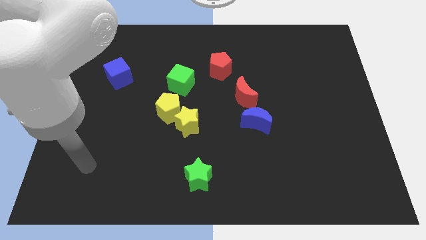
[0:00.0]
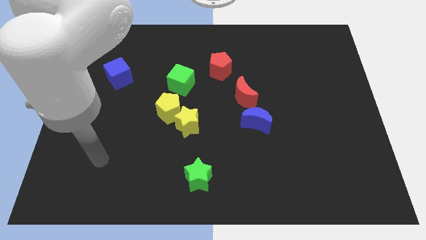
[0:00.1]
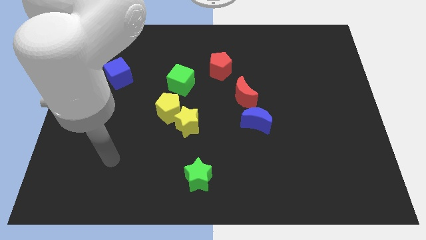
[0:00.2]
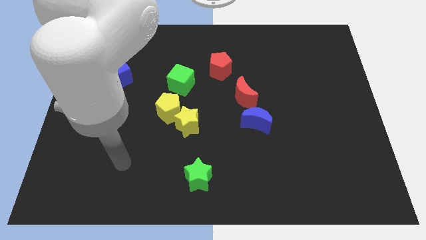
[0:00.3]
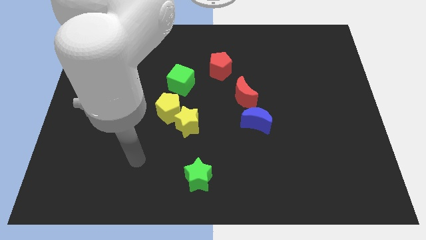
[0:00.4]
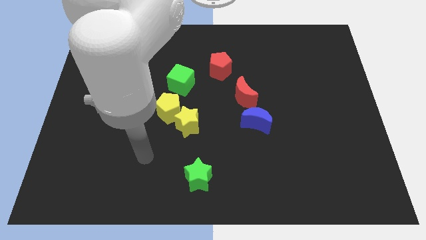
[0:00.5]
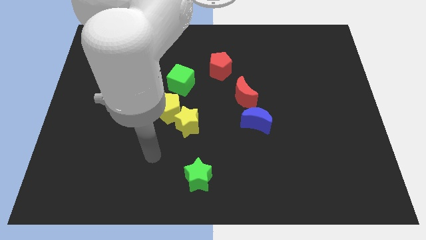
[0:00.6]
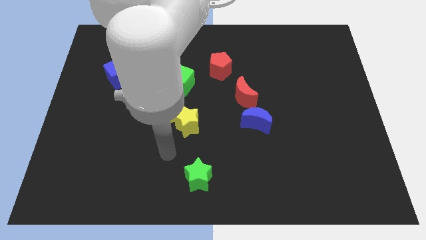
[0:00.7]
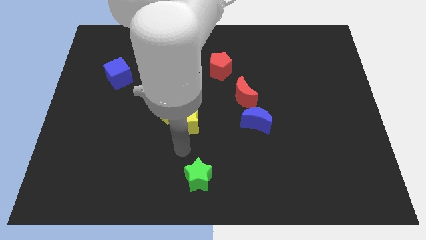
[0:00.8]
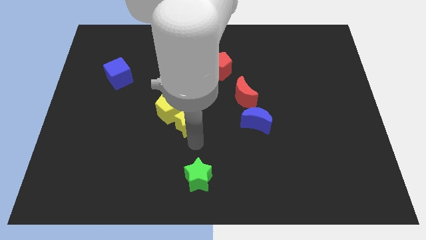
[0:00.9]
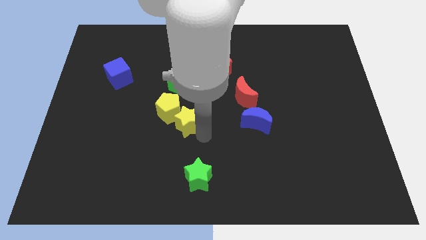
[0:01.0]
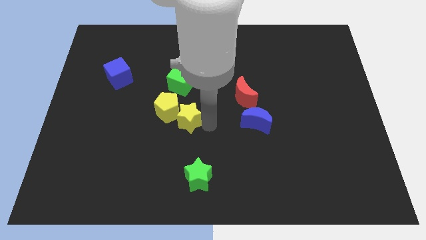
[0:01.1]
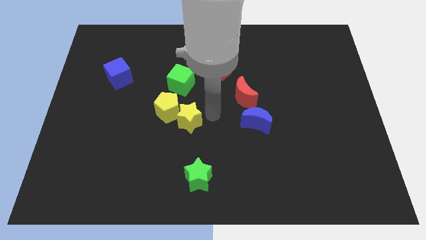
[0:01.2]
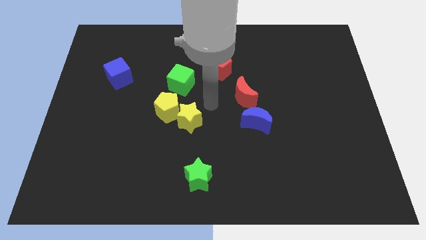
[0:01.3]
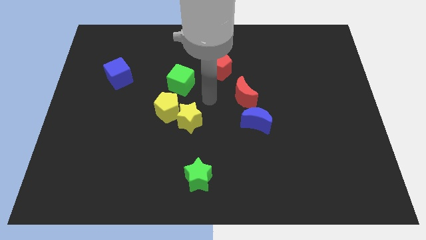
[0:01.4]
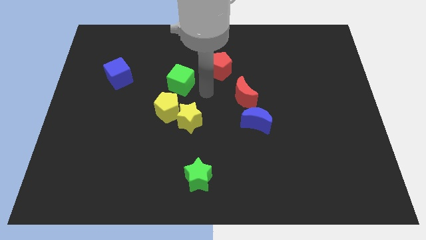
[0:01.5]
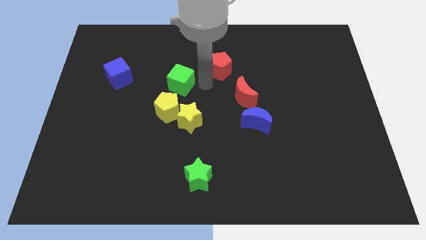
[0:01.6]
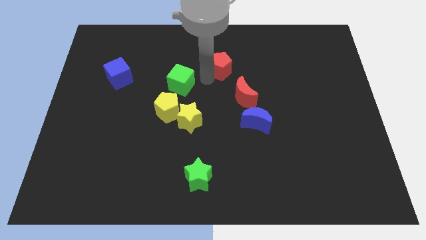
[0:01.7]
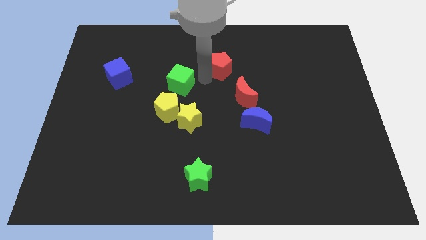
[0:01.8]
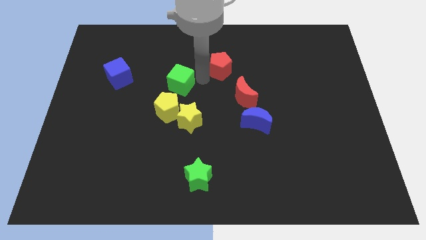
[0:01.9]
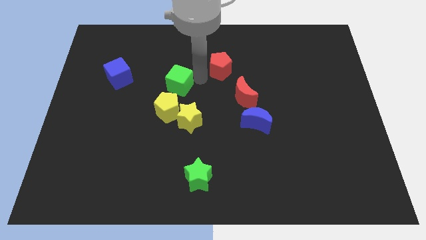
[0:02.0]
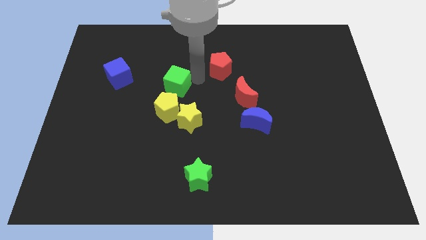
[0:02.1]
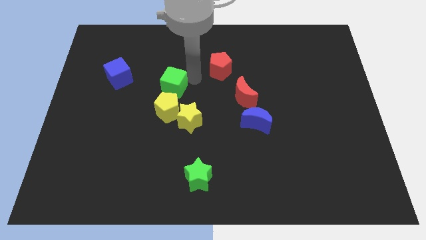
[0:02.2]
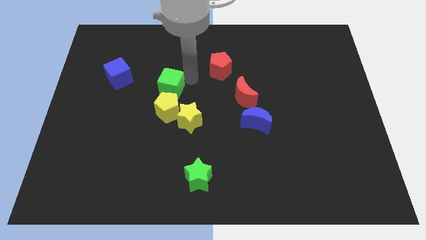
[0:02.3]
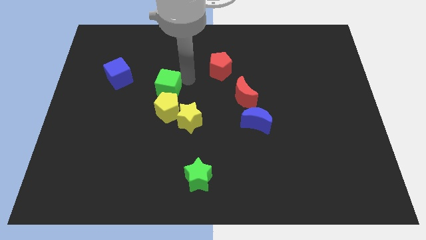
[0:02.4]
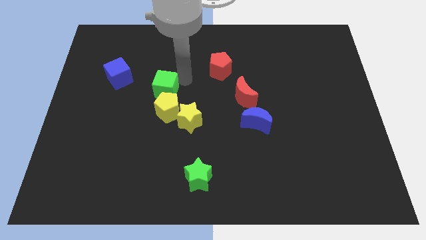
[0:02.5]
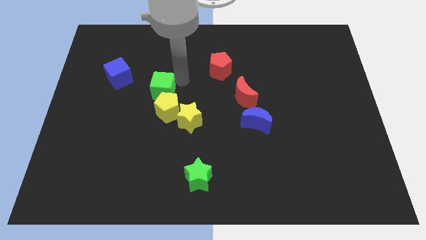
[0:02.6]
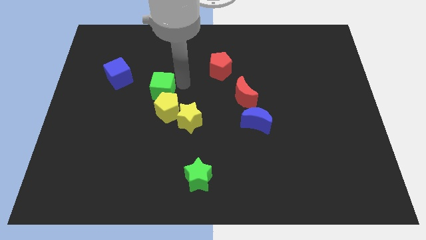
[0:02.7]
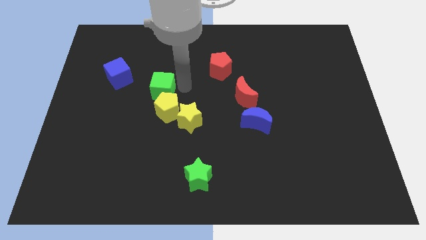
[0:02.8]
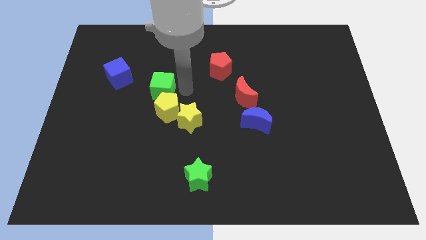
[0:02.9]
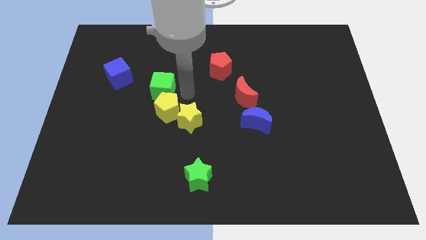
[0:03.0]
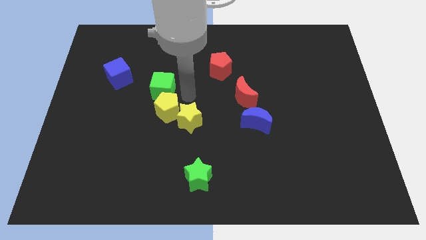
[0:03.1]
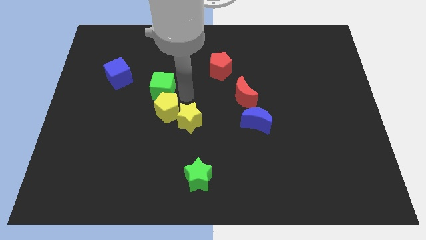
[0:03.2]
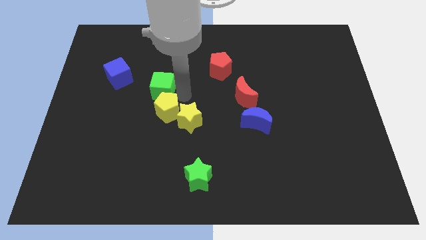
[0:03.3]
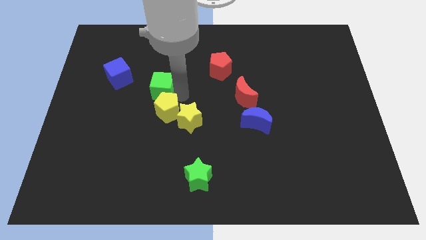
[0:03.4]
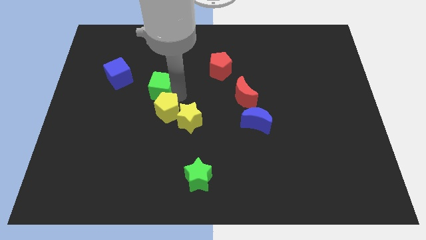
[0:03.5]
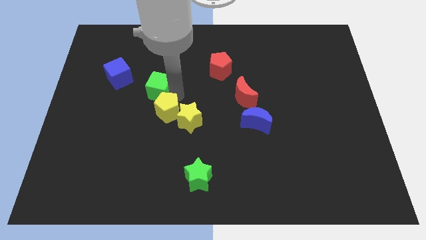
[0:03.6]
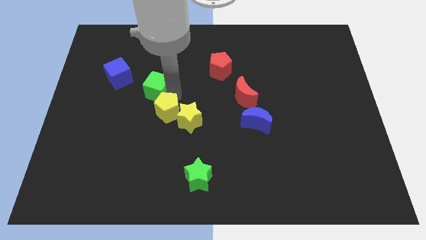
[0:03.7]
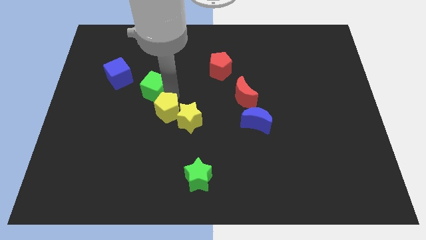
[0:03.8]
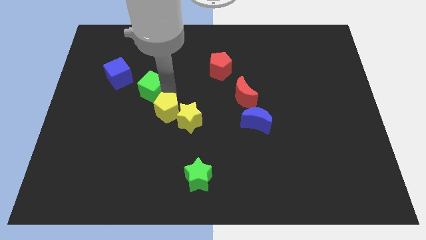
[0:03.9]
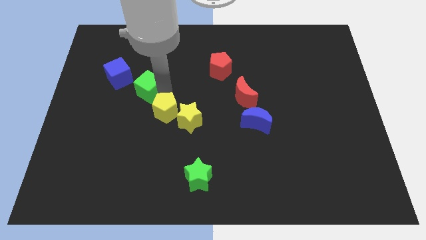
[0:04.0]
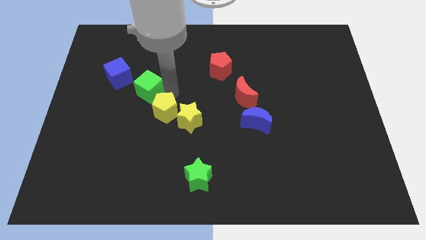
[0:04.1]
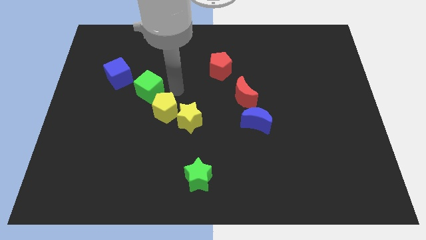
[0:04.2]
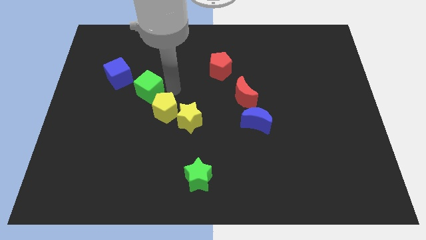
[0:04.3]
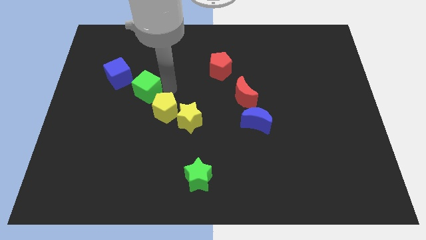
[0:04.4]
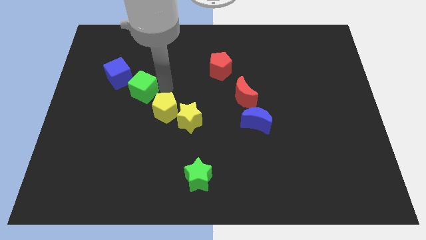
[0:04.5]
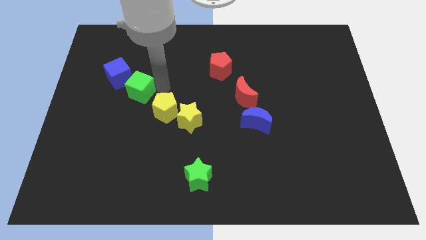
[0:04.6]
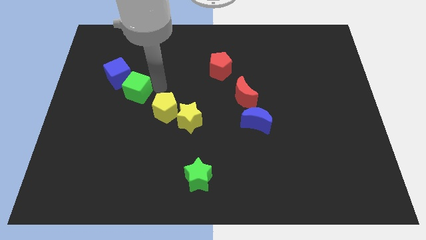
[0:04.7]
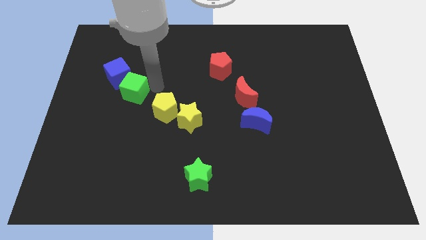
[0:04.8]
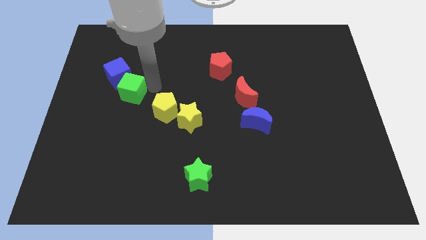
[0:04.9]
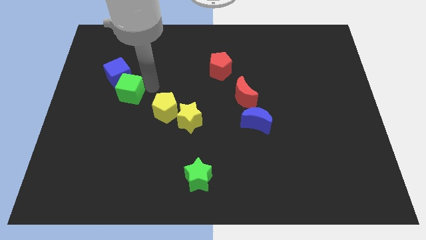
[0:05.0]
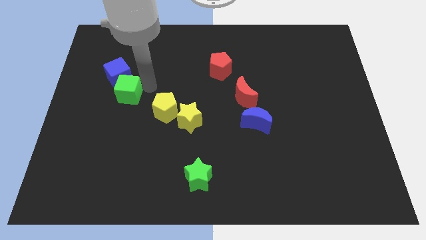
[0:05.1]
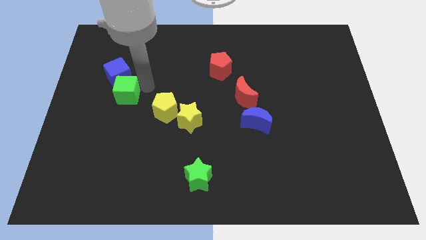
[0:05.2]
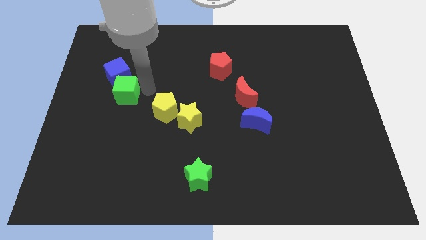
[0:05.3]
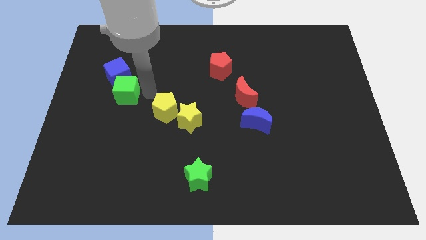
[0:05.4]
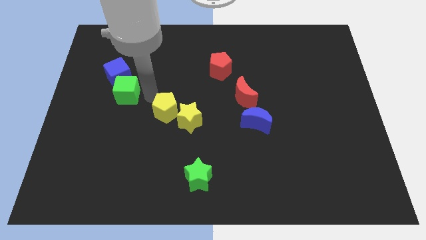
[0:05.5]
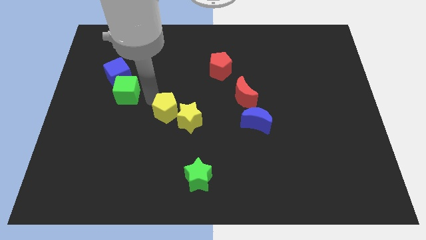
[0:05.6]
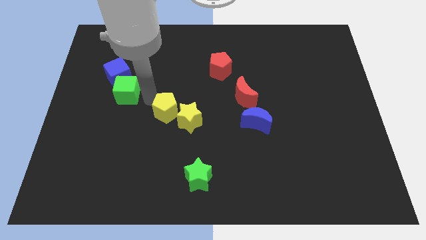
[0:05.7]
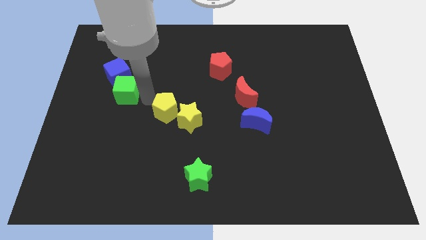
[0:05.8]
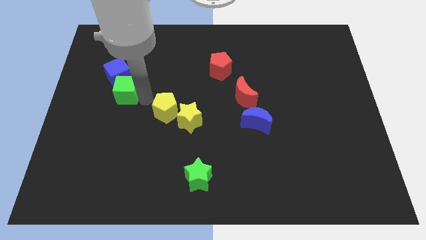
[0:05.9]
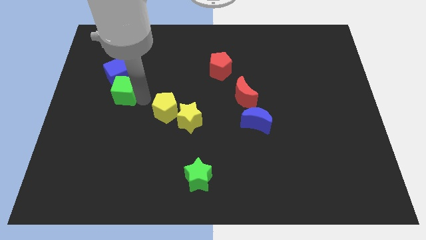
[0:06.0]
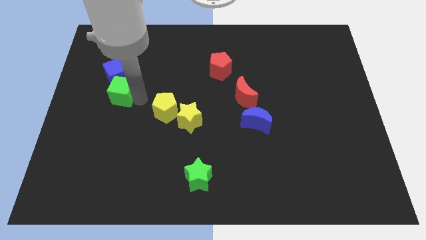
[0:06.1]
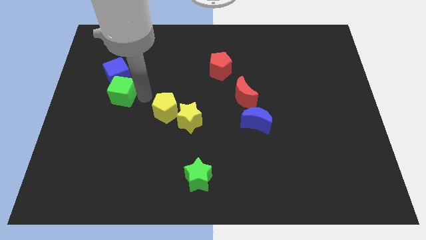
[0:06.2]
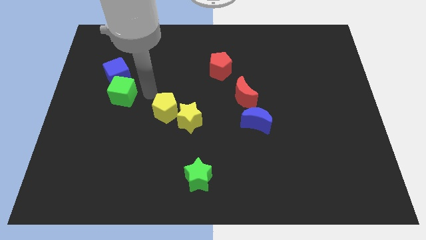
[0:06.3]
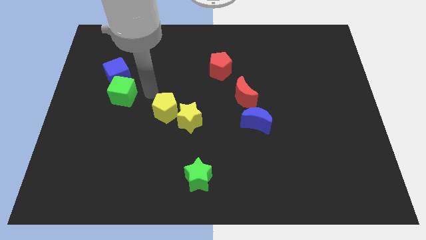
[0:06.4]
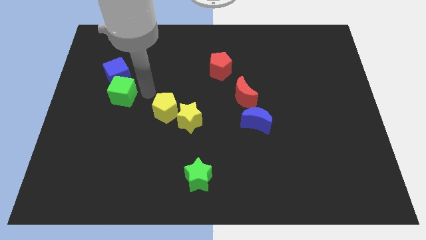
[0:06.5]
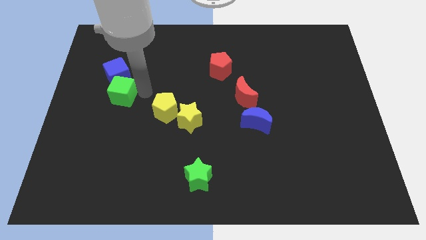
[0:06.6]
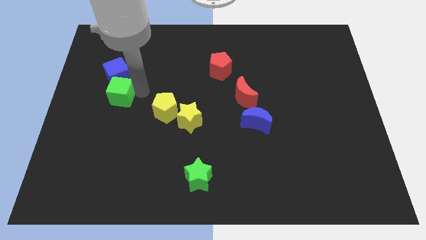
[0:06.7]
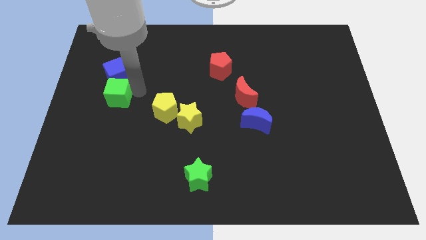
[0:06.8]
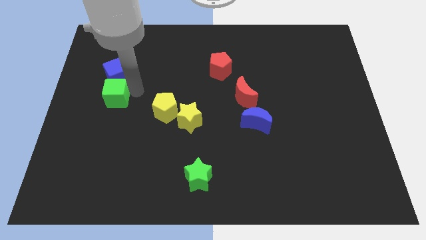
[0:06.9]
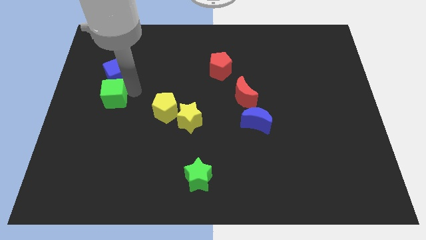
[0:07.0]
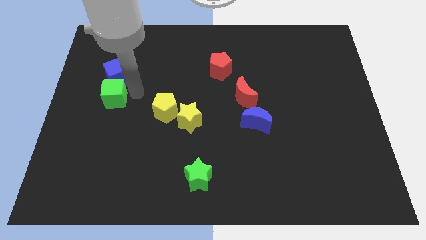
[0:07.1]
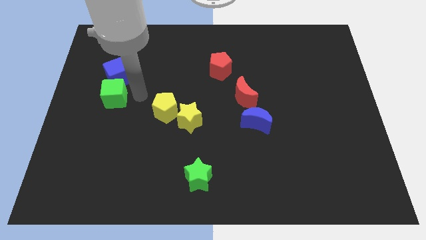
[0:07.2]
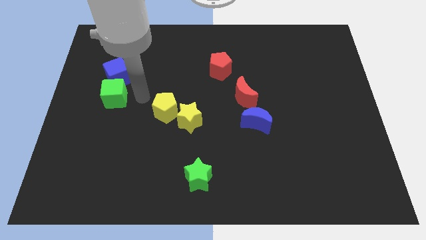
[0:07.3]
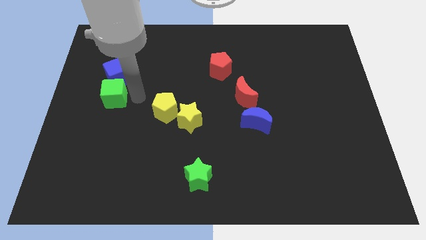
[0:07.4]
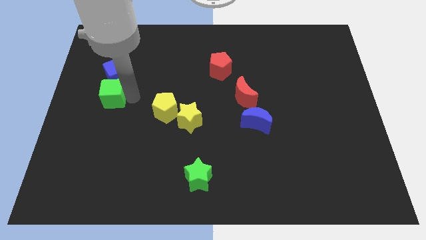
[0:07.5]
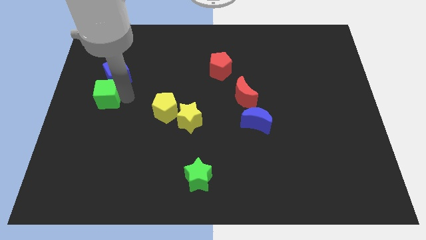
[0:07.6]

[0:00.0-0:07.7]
put the green cube to the left side of the board
